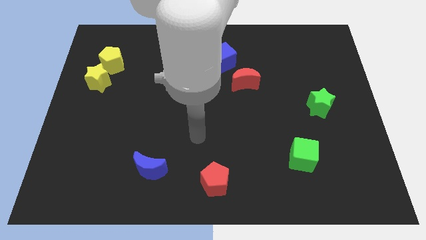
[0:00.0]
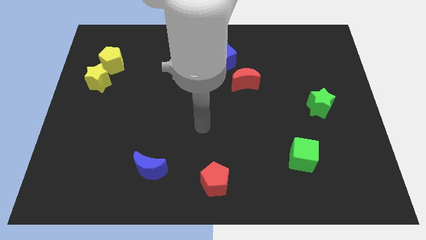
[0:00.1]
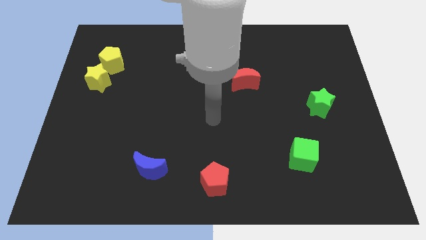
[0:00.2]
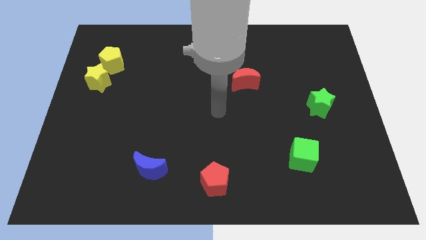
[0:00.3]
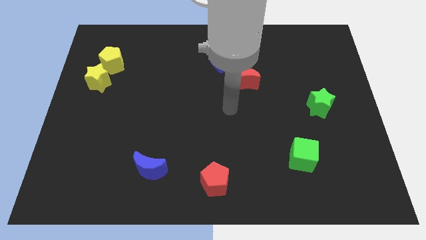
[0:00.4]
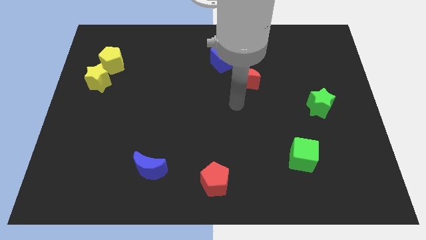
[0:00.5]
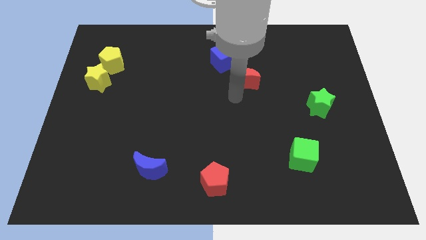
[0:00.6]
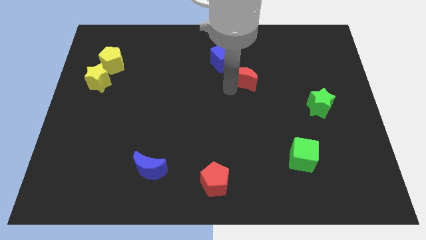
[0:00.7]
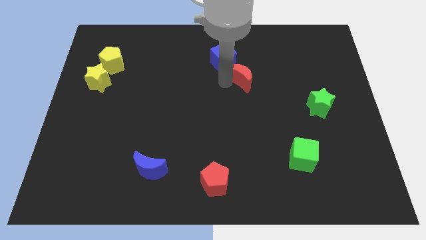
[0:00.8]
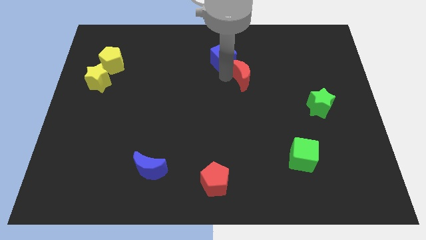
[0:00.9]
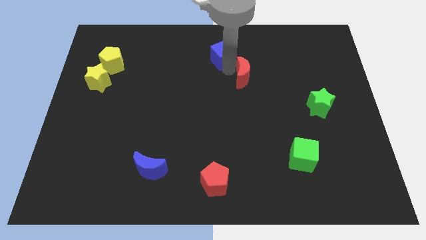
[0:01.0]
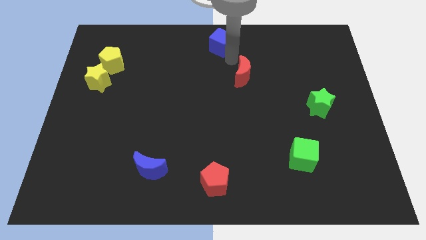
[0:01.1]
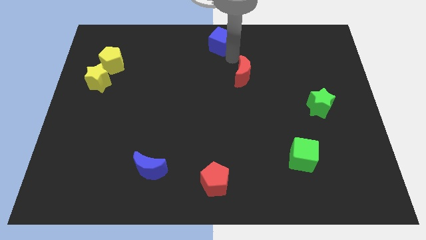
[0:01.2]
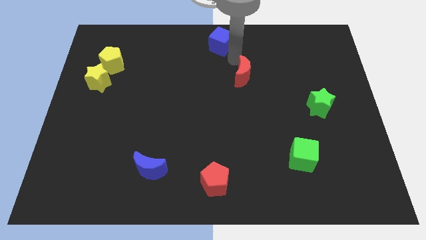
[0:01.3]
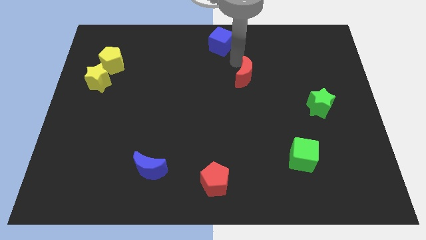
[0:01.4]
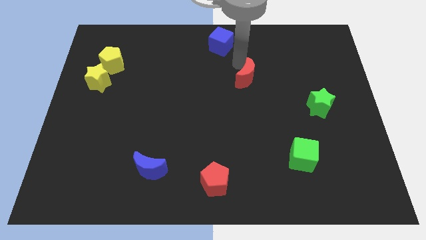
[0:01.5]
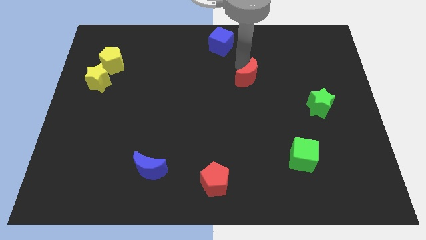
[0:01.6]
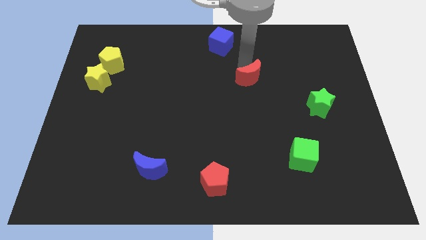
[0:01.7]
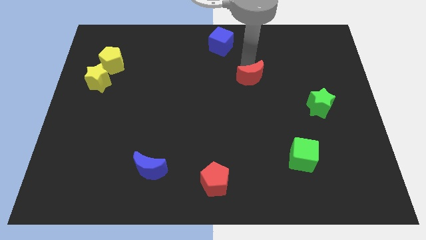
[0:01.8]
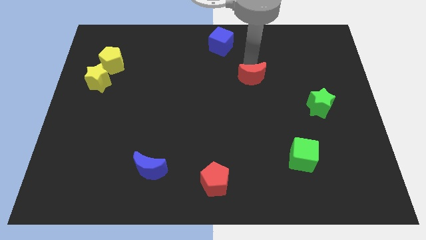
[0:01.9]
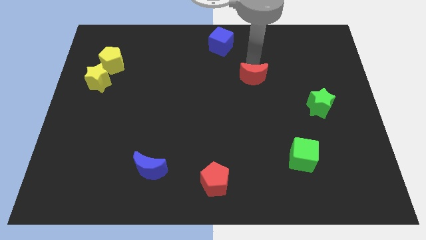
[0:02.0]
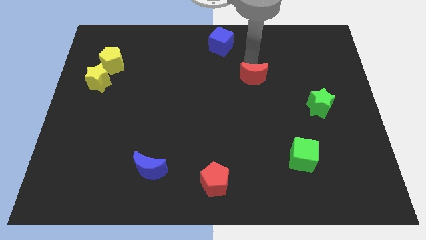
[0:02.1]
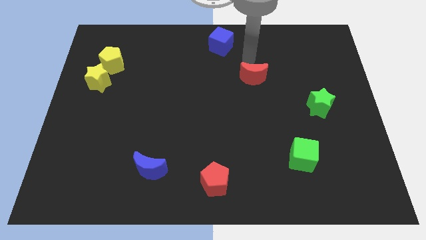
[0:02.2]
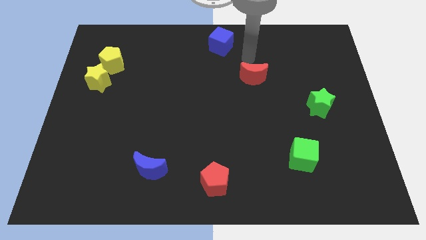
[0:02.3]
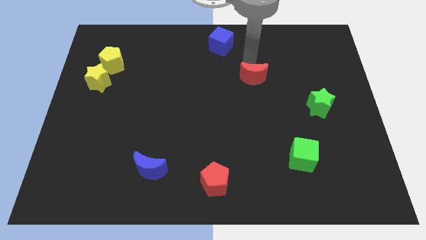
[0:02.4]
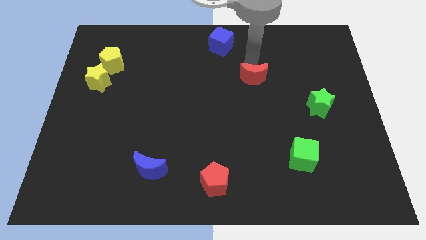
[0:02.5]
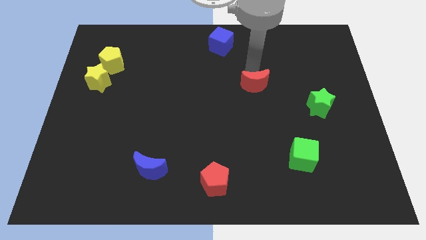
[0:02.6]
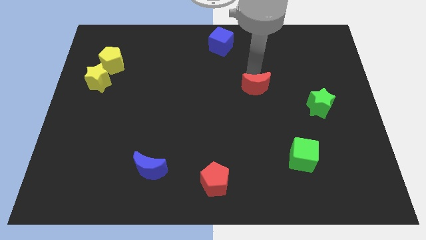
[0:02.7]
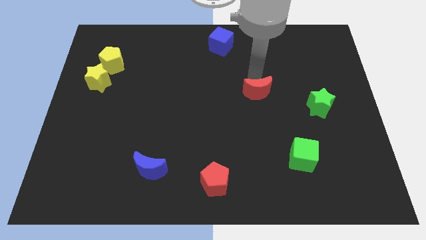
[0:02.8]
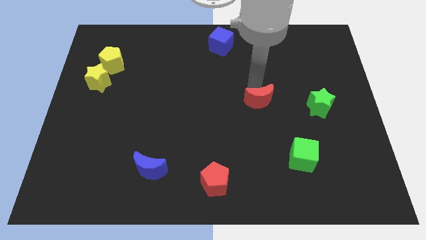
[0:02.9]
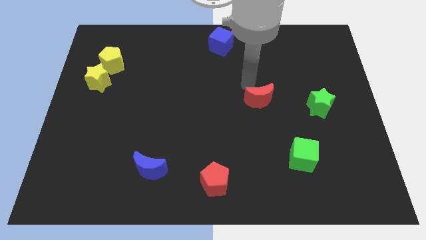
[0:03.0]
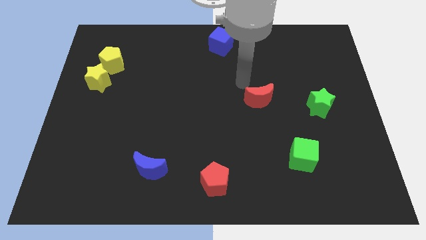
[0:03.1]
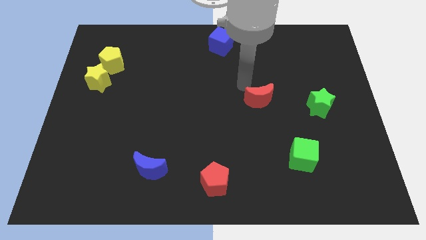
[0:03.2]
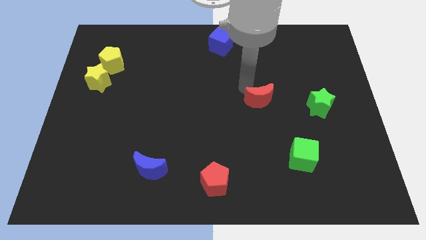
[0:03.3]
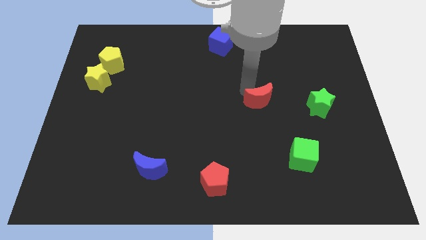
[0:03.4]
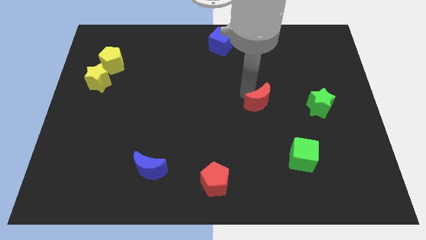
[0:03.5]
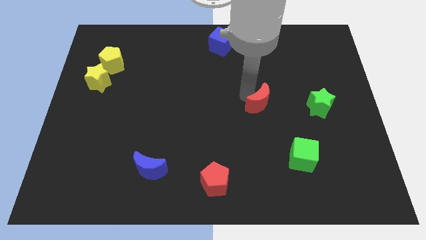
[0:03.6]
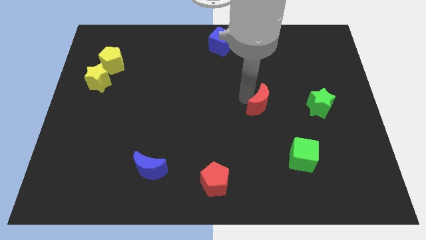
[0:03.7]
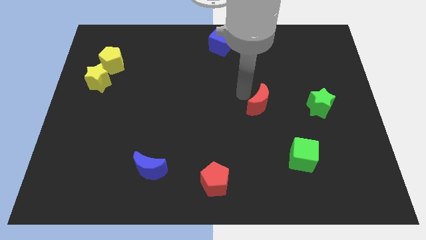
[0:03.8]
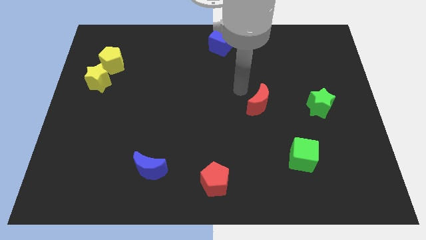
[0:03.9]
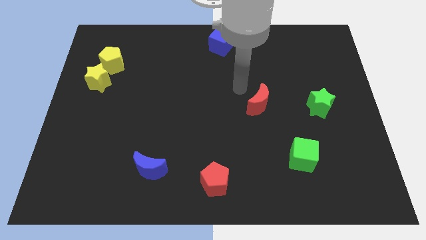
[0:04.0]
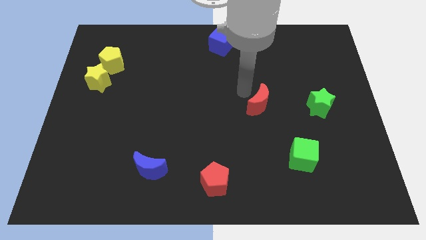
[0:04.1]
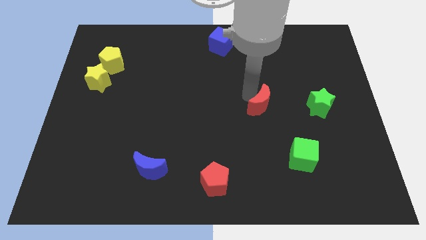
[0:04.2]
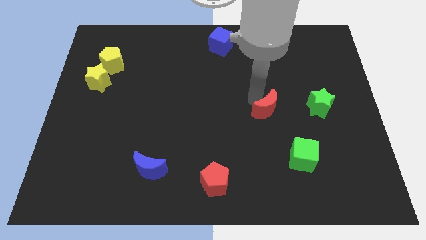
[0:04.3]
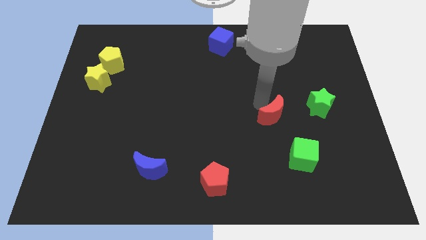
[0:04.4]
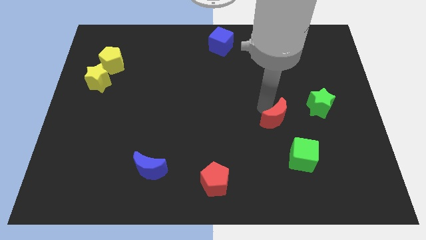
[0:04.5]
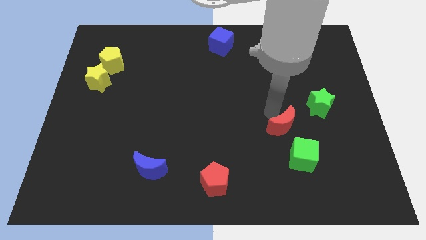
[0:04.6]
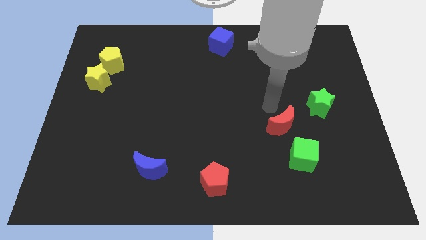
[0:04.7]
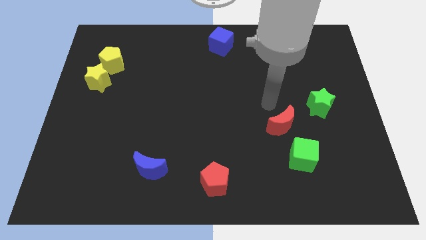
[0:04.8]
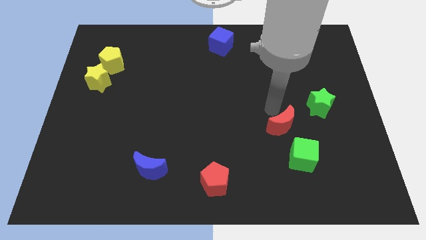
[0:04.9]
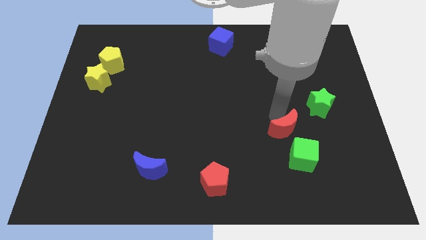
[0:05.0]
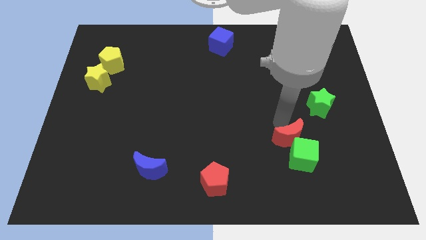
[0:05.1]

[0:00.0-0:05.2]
slide the red moon to the green cube

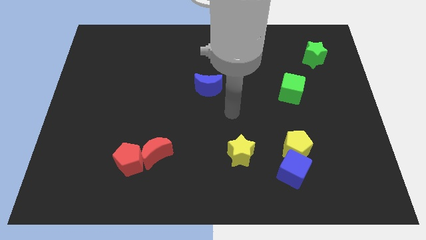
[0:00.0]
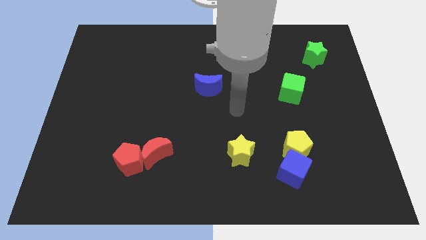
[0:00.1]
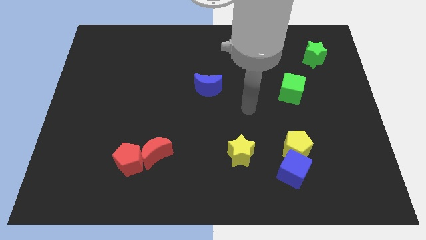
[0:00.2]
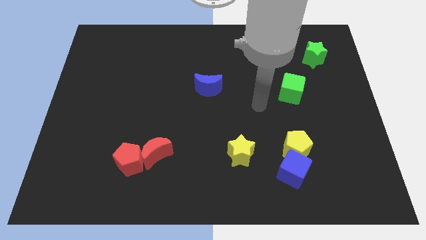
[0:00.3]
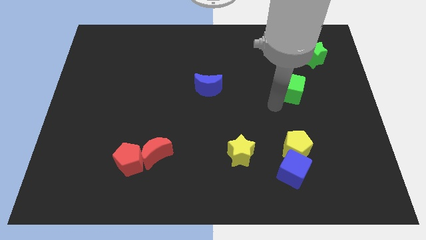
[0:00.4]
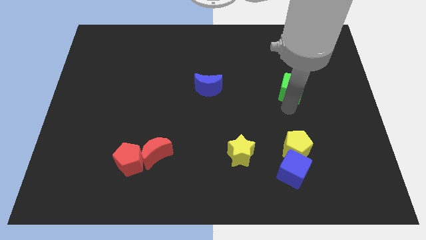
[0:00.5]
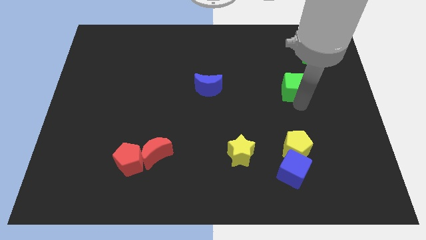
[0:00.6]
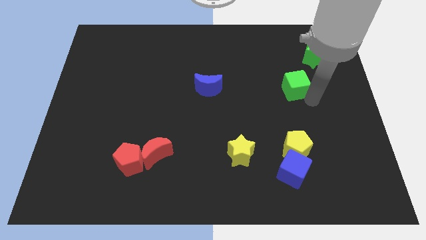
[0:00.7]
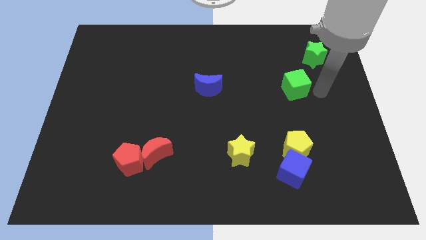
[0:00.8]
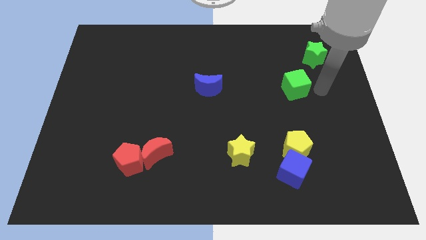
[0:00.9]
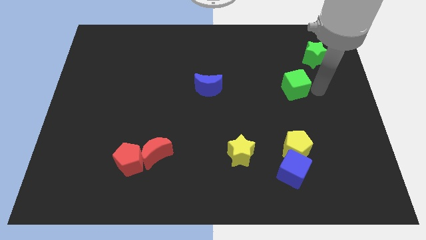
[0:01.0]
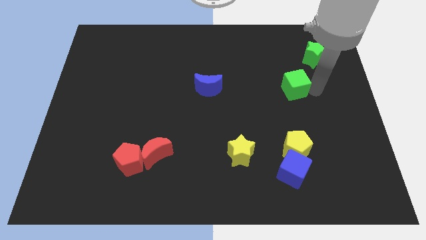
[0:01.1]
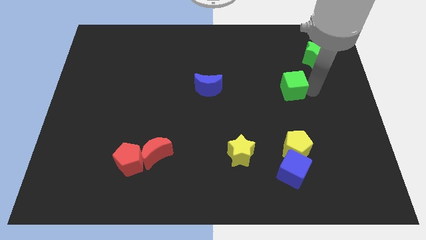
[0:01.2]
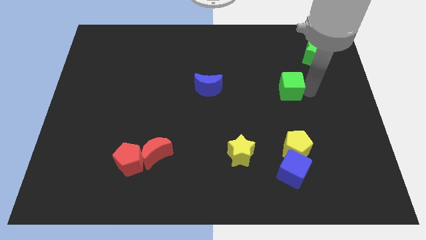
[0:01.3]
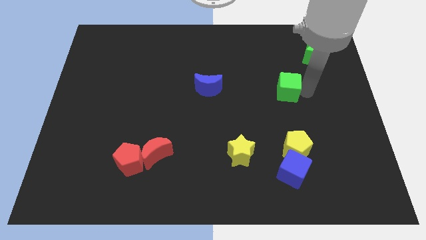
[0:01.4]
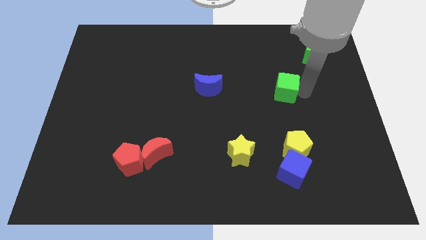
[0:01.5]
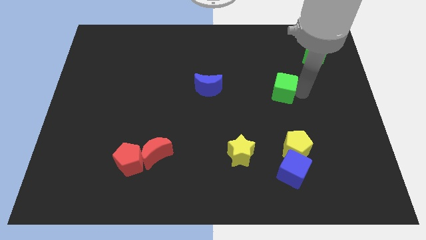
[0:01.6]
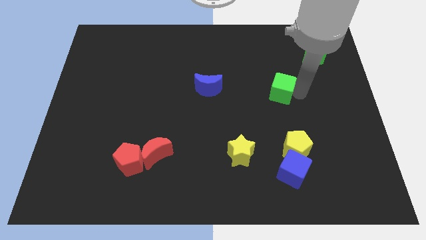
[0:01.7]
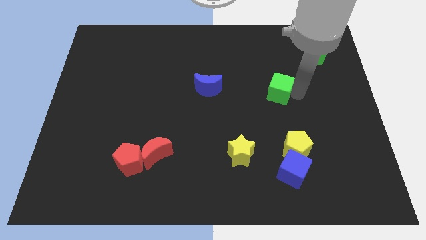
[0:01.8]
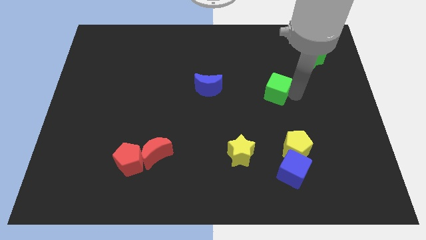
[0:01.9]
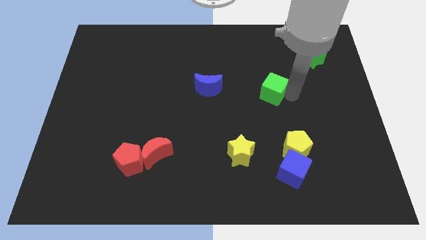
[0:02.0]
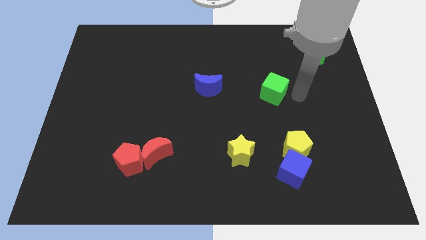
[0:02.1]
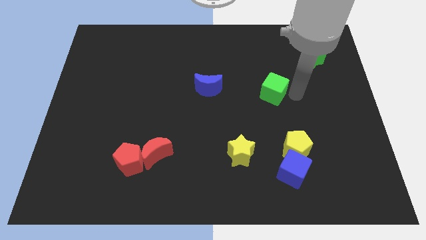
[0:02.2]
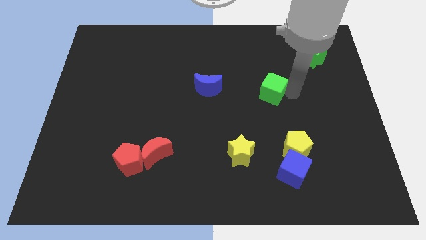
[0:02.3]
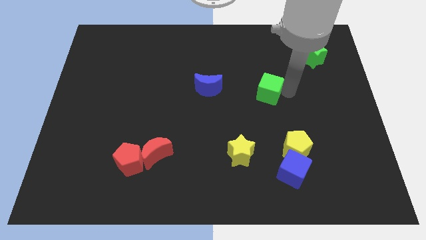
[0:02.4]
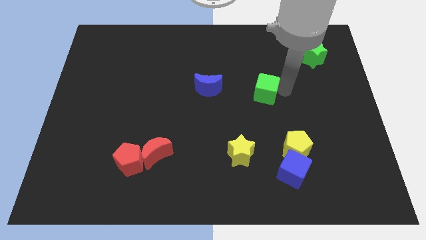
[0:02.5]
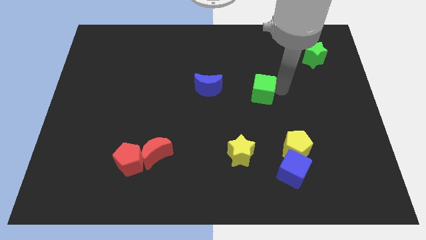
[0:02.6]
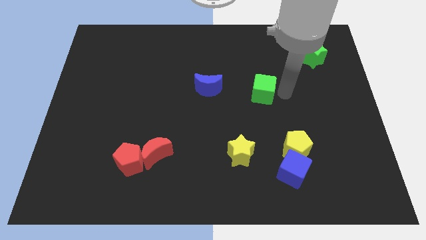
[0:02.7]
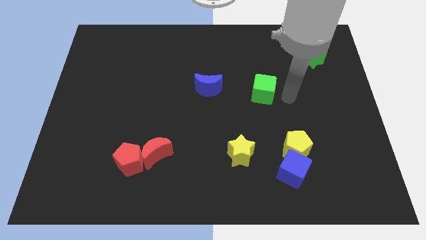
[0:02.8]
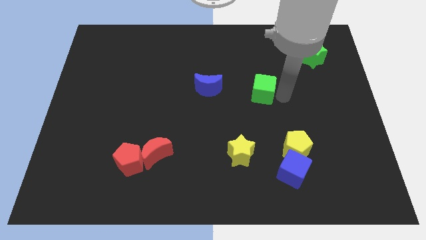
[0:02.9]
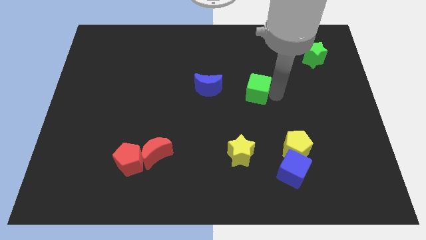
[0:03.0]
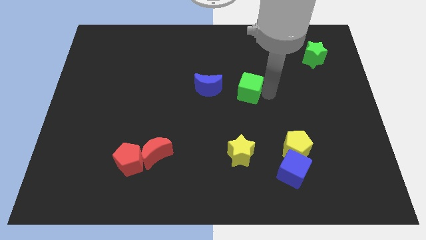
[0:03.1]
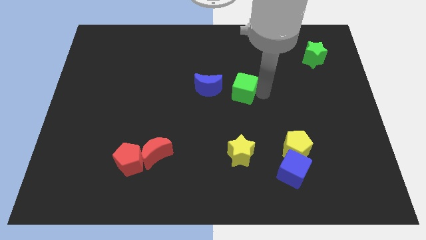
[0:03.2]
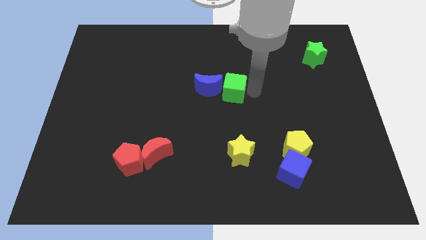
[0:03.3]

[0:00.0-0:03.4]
move the green cube close to the blue moon
